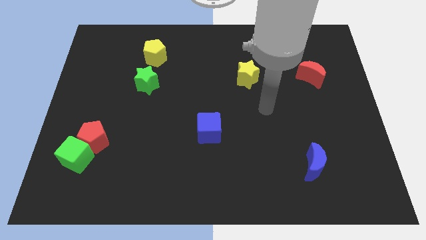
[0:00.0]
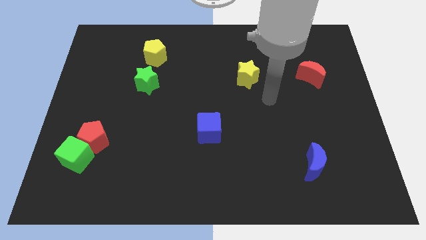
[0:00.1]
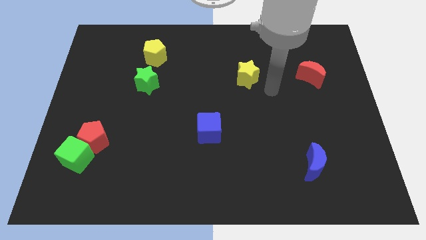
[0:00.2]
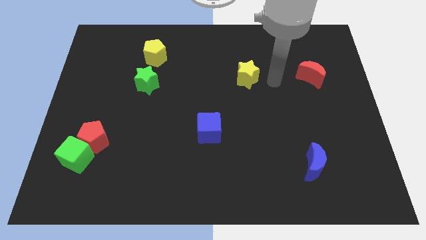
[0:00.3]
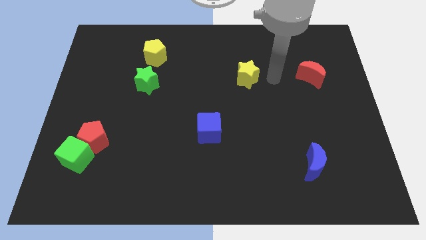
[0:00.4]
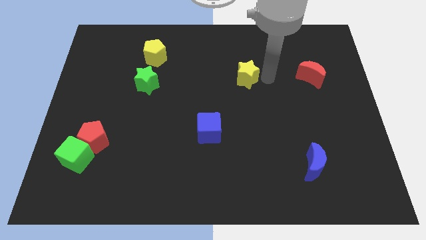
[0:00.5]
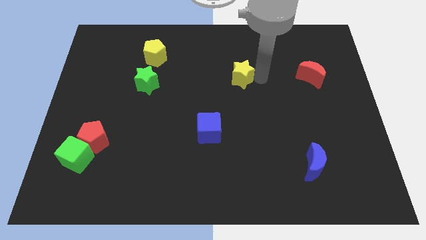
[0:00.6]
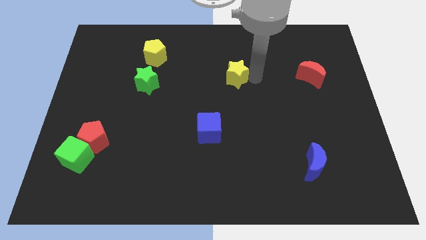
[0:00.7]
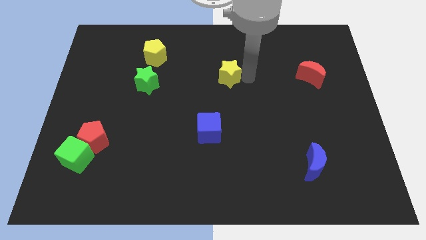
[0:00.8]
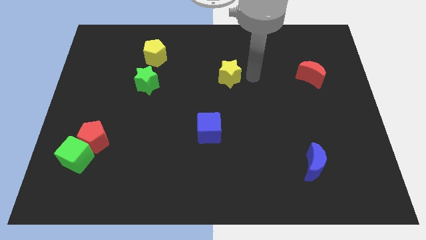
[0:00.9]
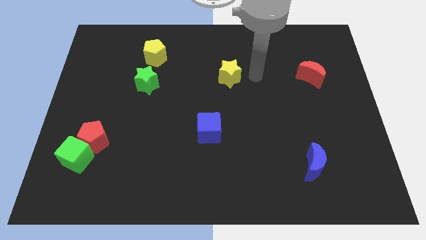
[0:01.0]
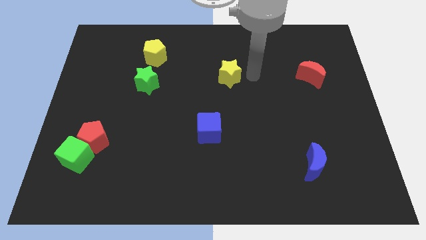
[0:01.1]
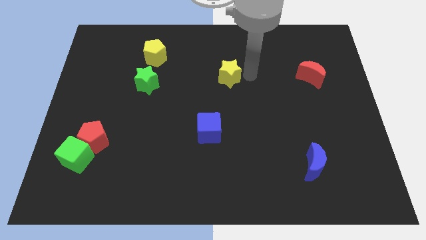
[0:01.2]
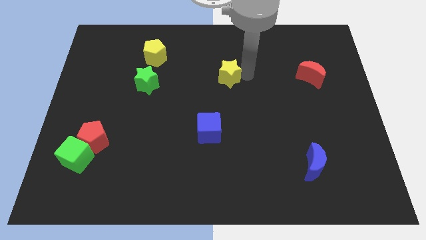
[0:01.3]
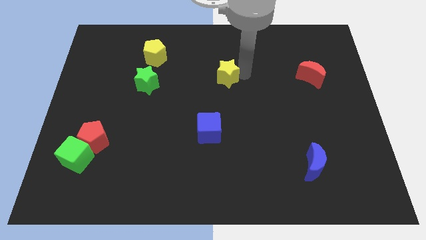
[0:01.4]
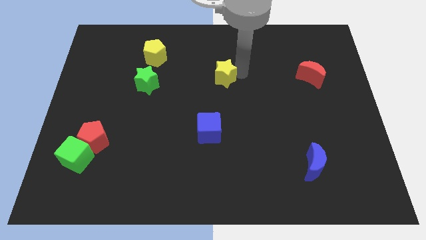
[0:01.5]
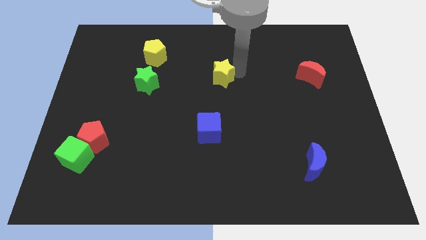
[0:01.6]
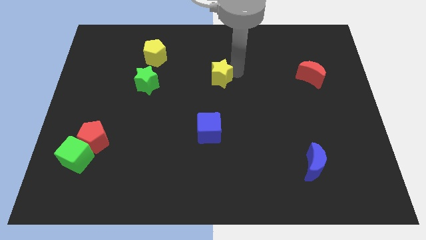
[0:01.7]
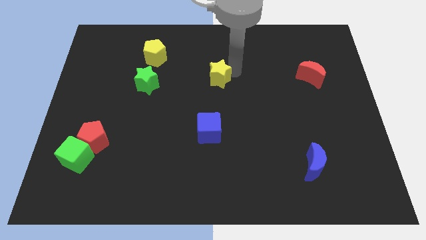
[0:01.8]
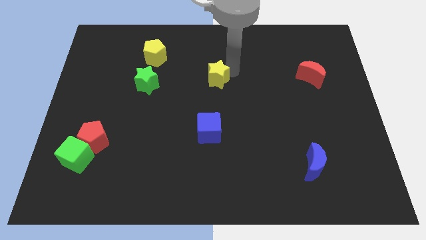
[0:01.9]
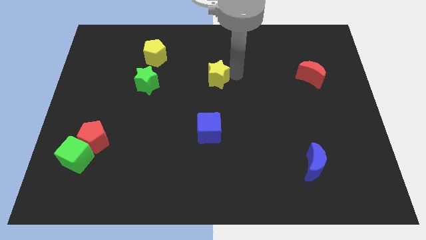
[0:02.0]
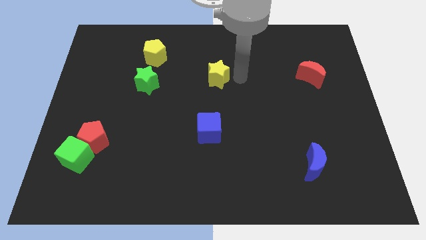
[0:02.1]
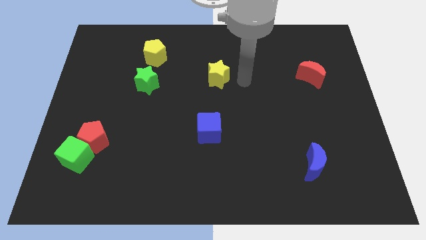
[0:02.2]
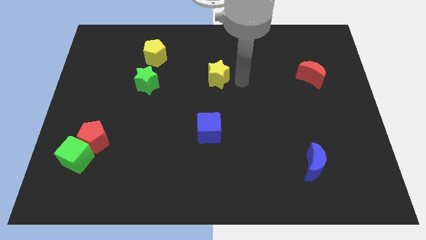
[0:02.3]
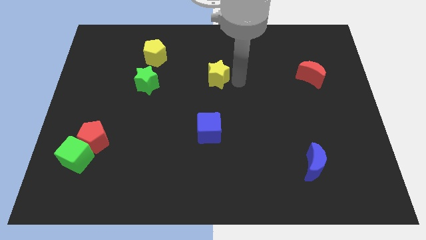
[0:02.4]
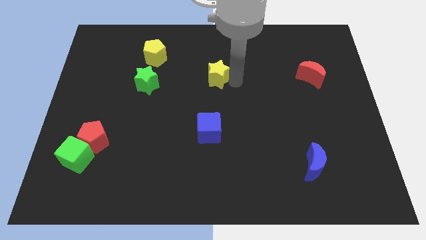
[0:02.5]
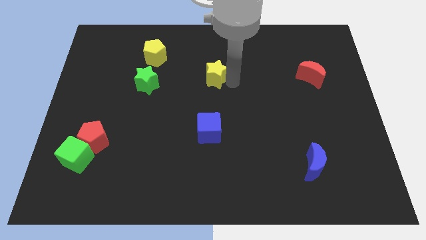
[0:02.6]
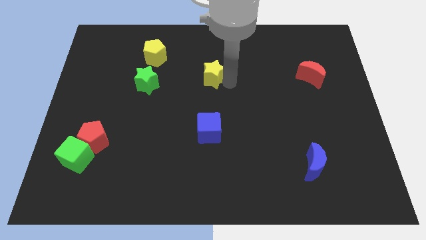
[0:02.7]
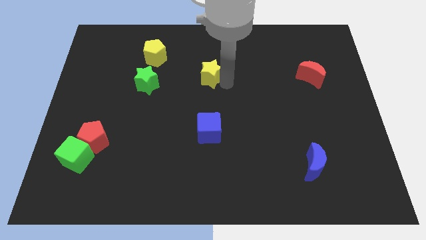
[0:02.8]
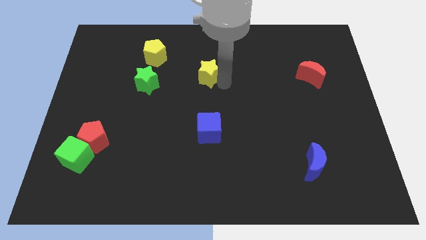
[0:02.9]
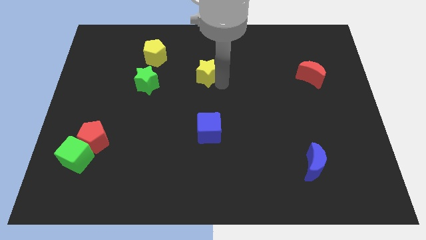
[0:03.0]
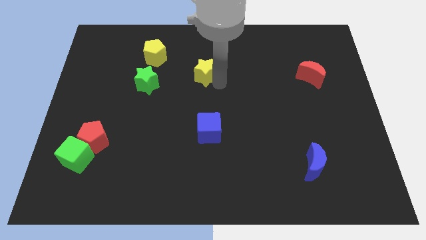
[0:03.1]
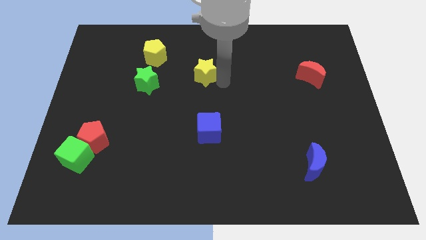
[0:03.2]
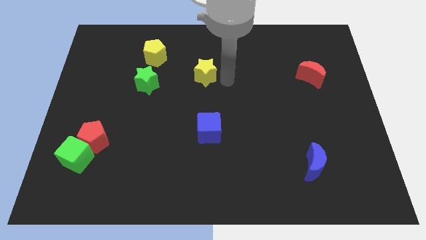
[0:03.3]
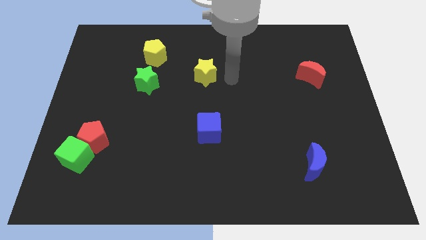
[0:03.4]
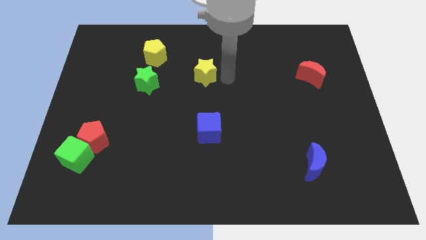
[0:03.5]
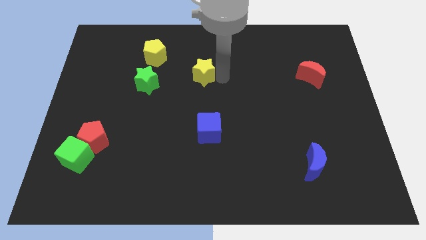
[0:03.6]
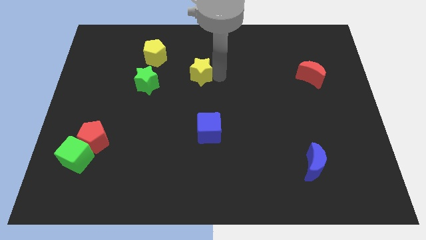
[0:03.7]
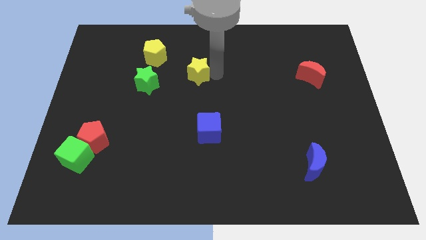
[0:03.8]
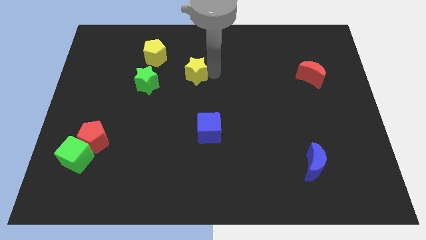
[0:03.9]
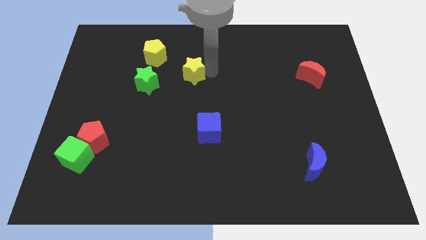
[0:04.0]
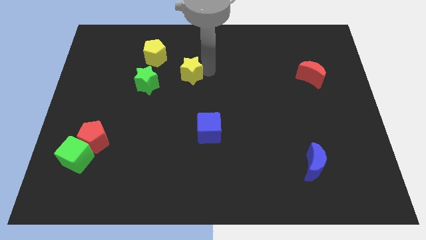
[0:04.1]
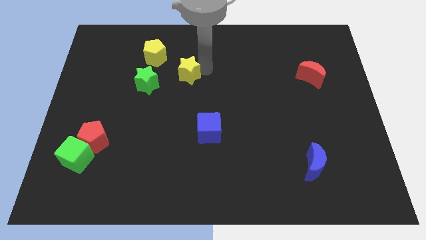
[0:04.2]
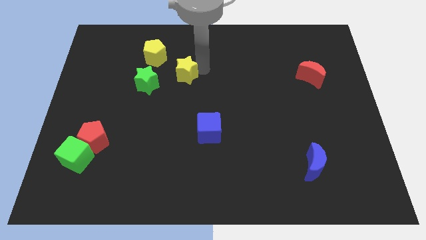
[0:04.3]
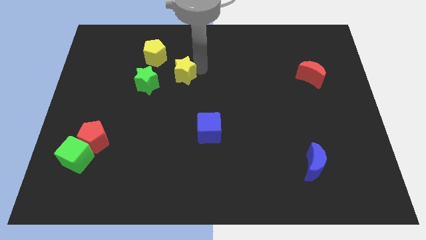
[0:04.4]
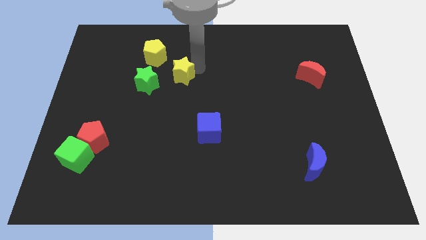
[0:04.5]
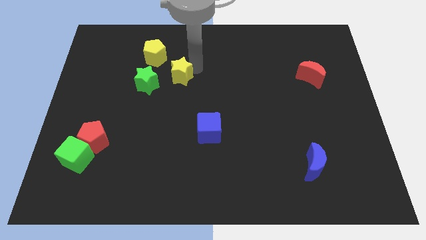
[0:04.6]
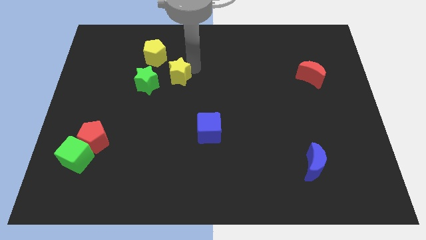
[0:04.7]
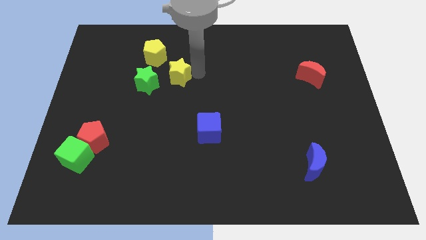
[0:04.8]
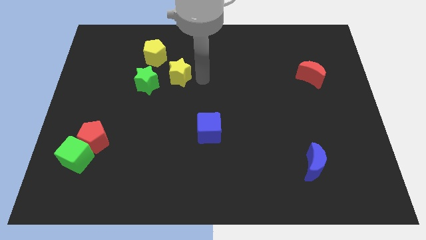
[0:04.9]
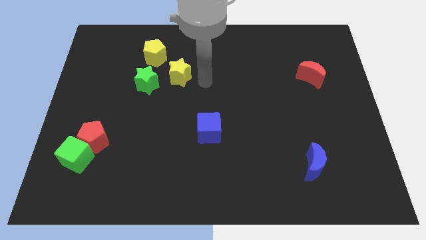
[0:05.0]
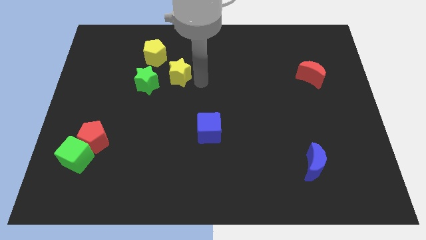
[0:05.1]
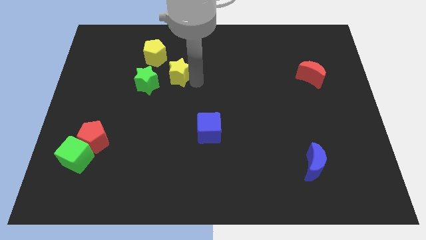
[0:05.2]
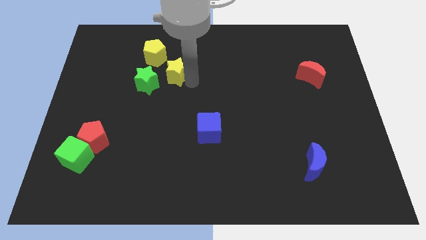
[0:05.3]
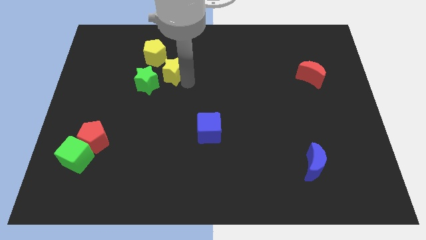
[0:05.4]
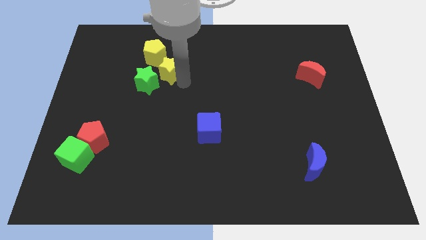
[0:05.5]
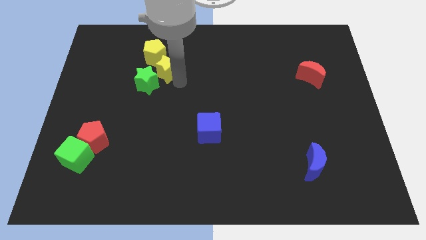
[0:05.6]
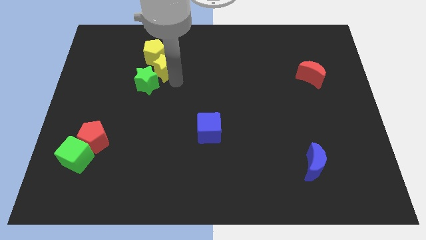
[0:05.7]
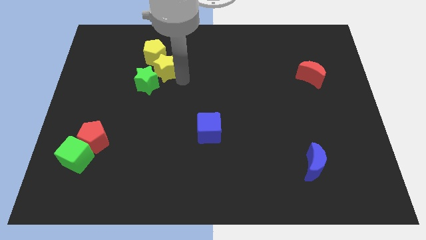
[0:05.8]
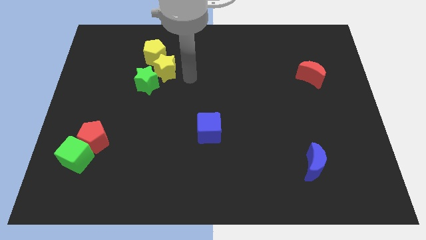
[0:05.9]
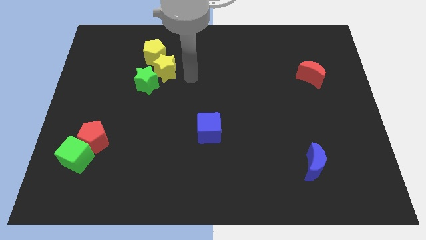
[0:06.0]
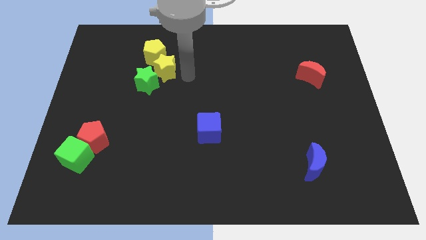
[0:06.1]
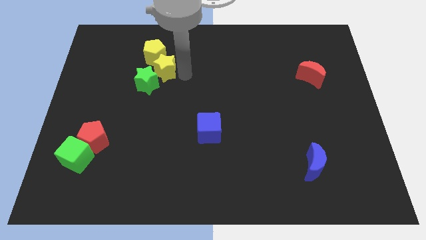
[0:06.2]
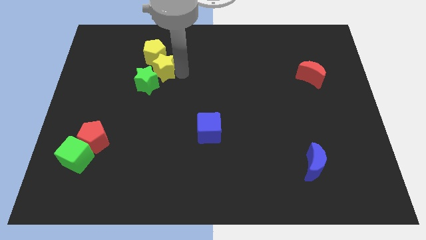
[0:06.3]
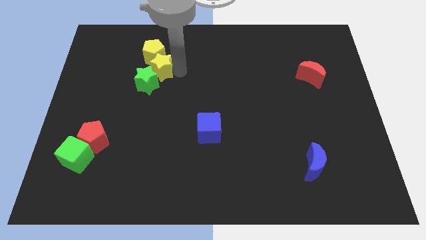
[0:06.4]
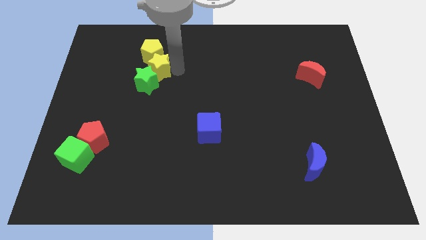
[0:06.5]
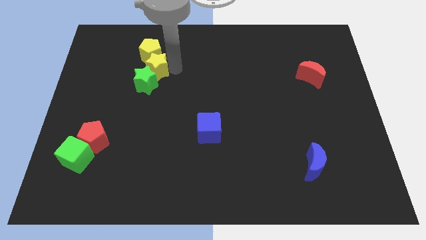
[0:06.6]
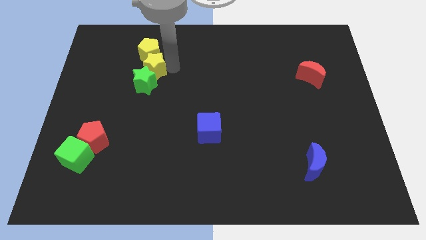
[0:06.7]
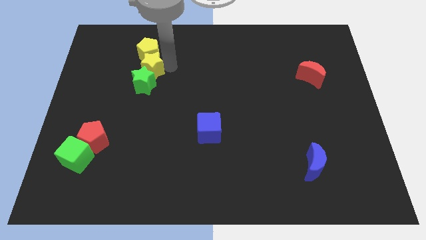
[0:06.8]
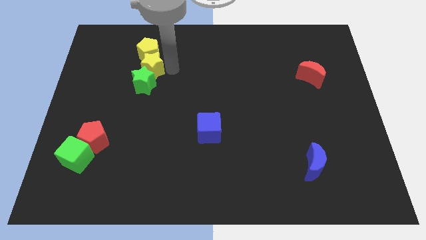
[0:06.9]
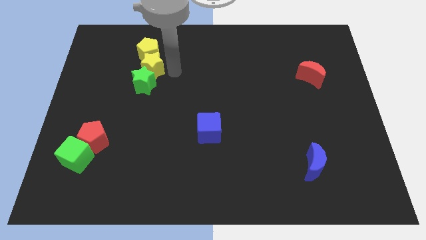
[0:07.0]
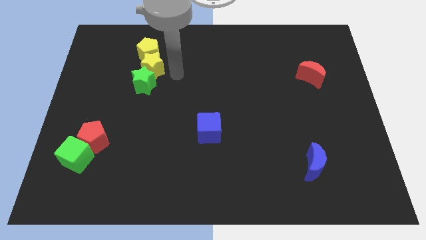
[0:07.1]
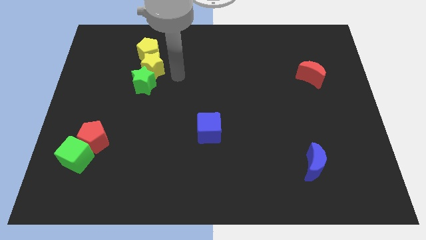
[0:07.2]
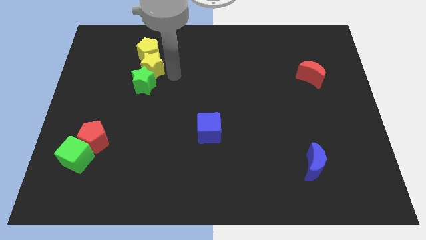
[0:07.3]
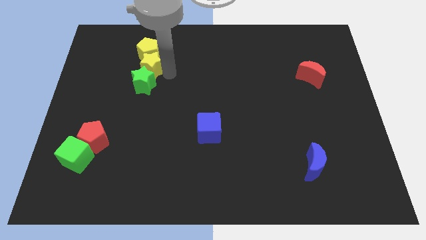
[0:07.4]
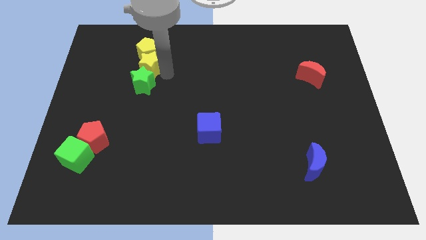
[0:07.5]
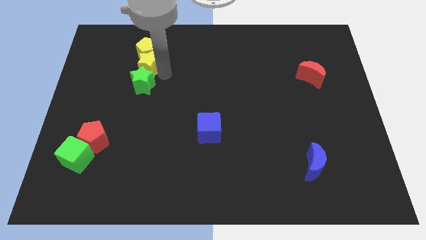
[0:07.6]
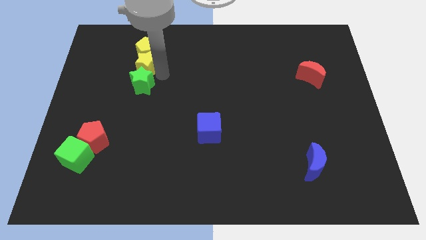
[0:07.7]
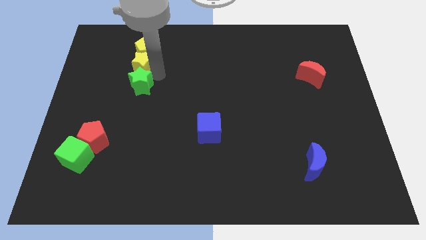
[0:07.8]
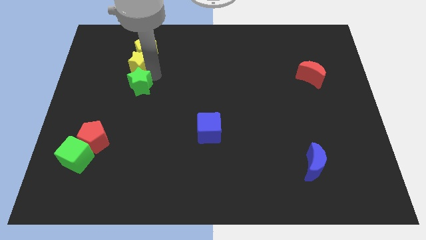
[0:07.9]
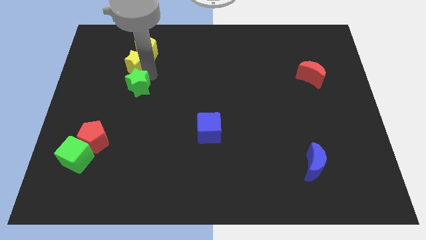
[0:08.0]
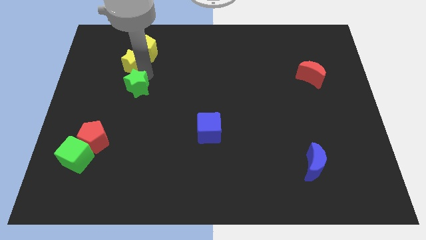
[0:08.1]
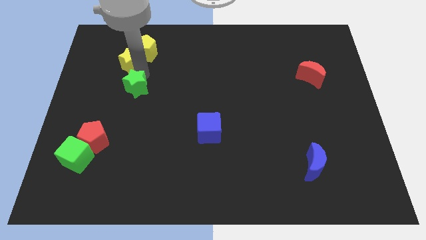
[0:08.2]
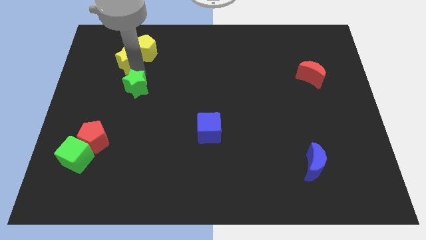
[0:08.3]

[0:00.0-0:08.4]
push the yellow star to the left side of the yellow pentagon
